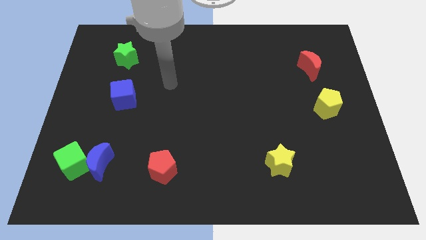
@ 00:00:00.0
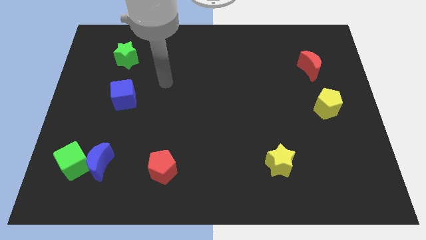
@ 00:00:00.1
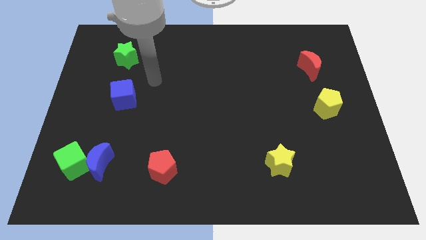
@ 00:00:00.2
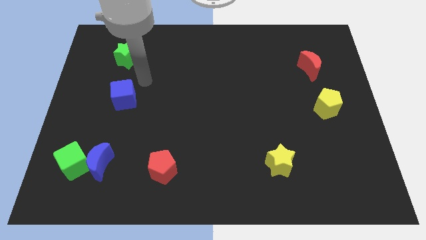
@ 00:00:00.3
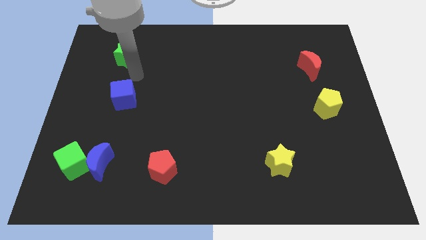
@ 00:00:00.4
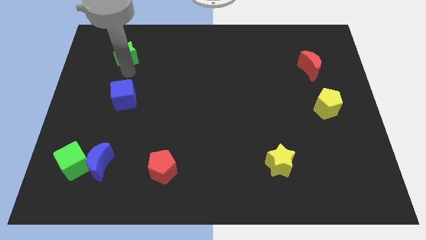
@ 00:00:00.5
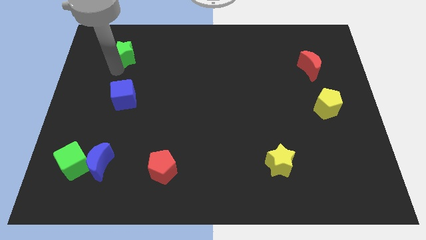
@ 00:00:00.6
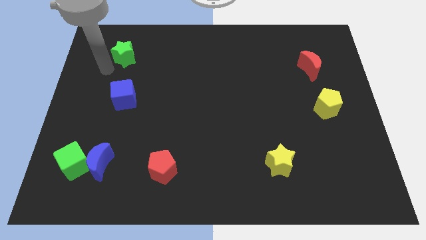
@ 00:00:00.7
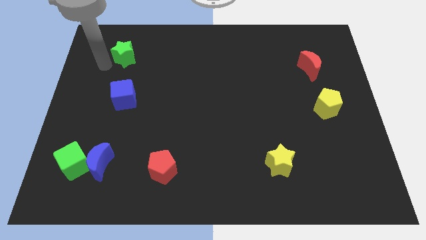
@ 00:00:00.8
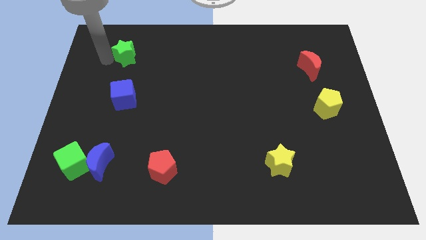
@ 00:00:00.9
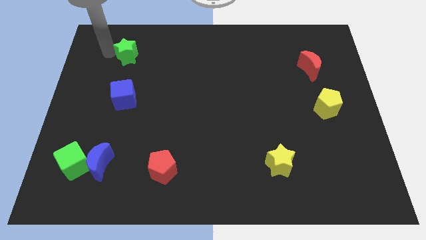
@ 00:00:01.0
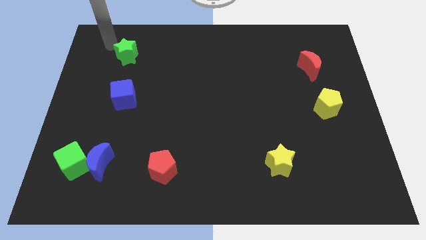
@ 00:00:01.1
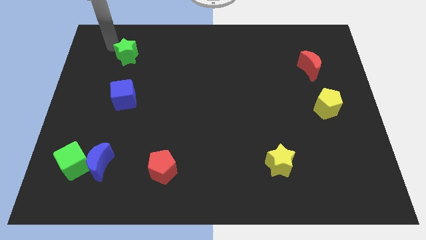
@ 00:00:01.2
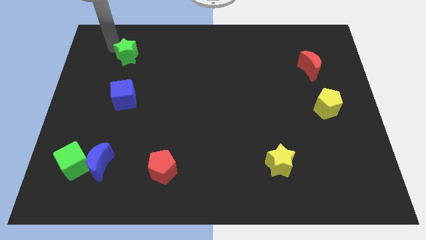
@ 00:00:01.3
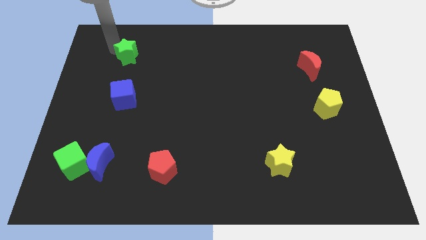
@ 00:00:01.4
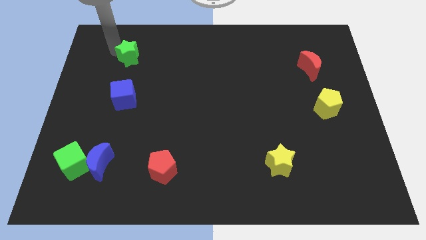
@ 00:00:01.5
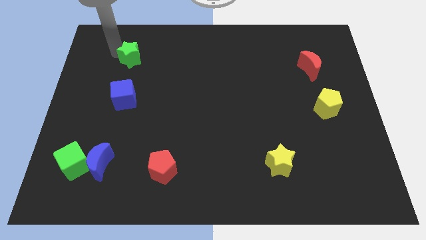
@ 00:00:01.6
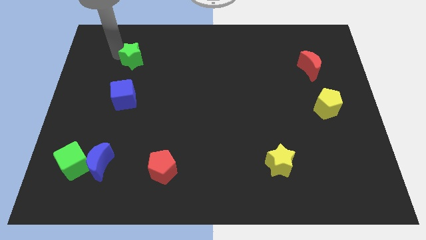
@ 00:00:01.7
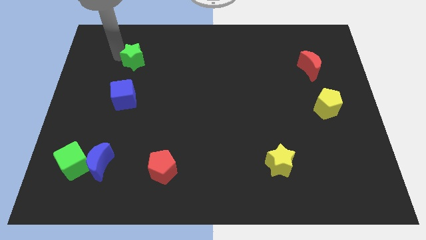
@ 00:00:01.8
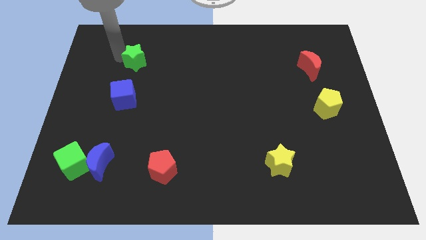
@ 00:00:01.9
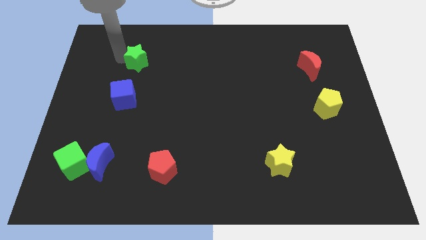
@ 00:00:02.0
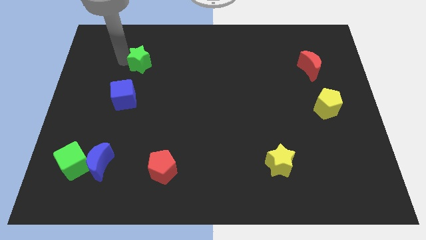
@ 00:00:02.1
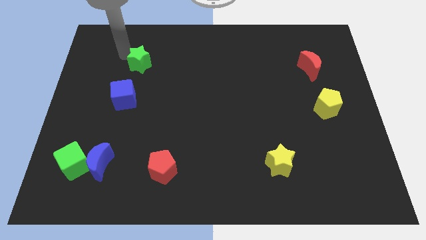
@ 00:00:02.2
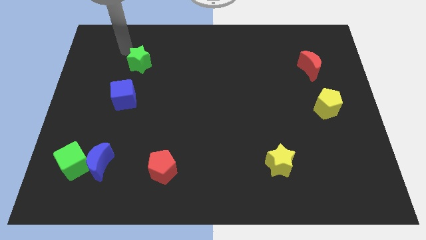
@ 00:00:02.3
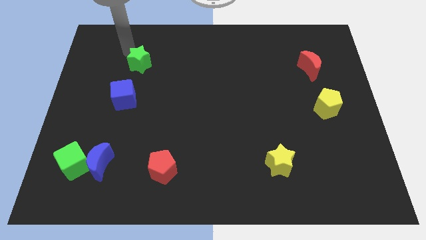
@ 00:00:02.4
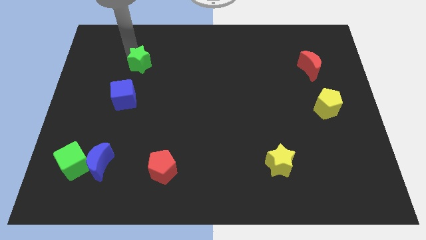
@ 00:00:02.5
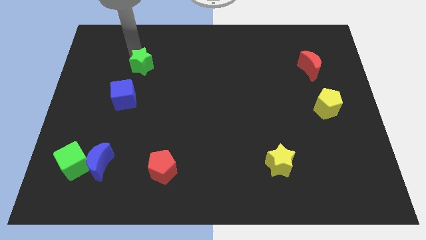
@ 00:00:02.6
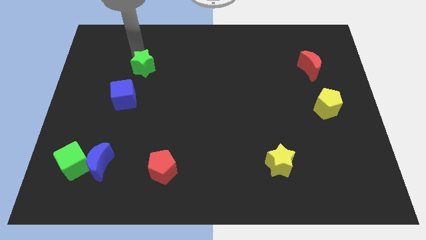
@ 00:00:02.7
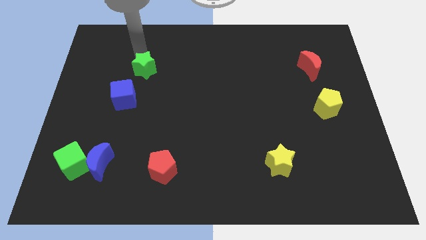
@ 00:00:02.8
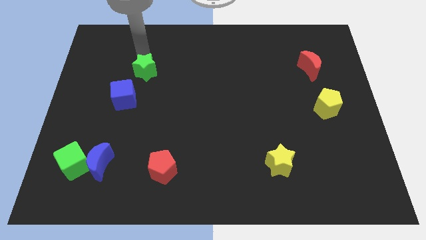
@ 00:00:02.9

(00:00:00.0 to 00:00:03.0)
push the green star somewhat down and to the right

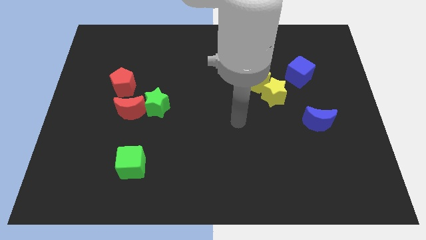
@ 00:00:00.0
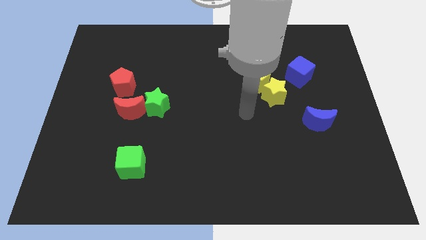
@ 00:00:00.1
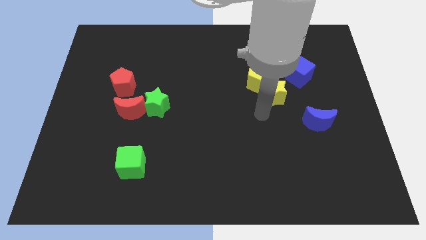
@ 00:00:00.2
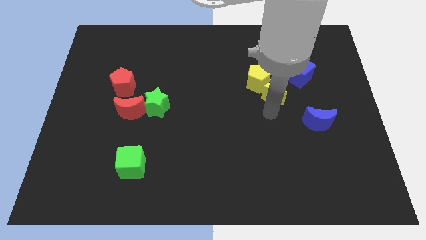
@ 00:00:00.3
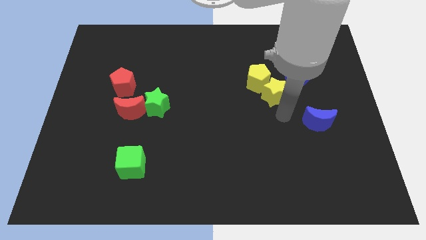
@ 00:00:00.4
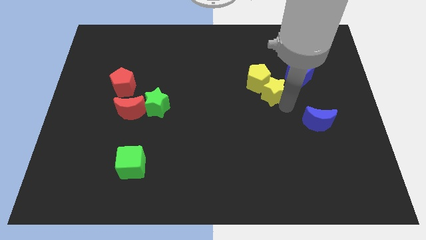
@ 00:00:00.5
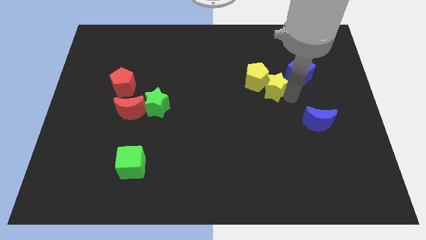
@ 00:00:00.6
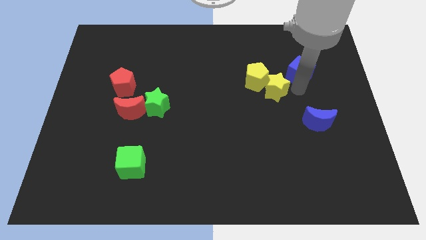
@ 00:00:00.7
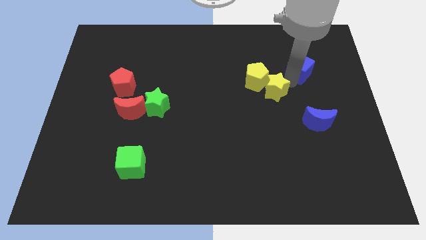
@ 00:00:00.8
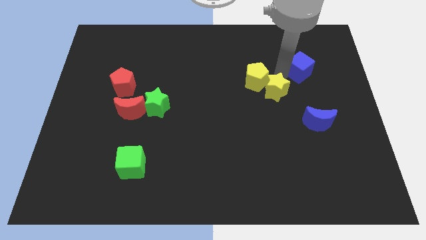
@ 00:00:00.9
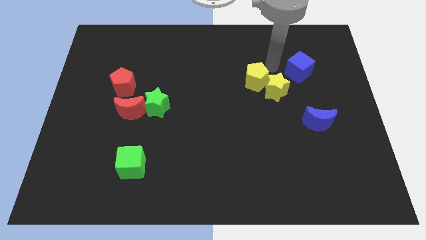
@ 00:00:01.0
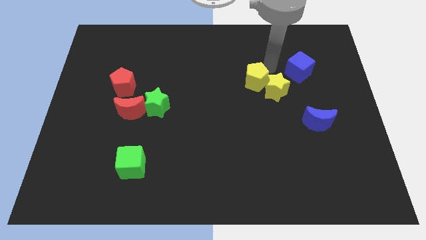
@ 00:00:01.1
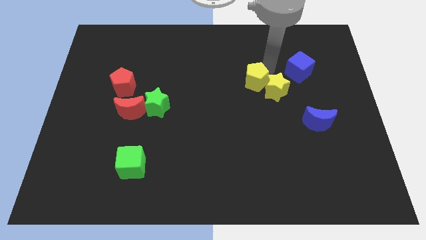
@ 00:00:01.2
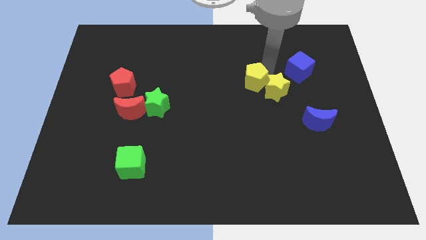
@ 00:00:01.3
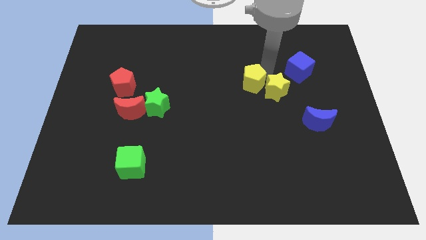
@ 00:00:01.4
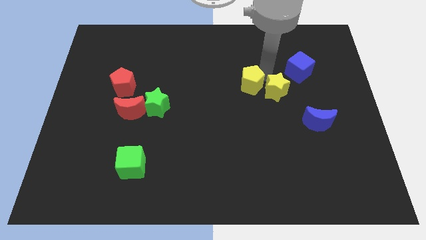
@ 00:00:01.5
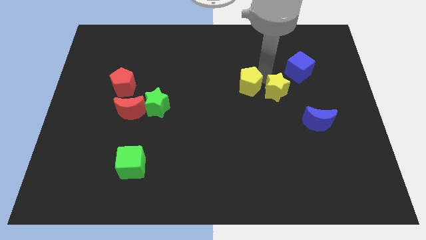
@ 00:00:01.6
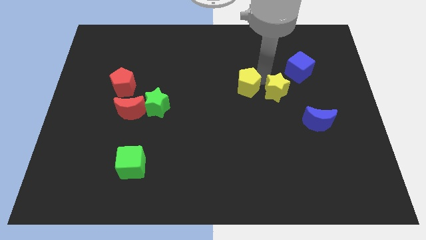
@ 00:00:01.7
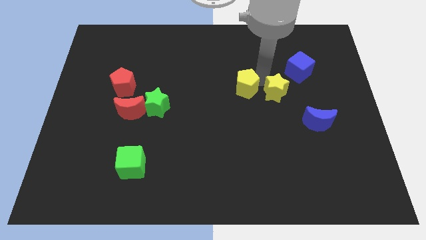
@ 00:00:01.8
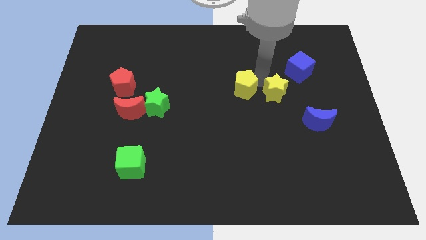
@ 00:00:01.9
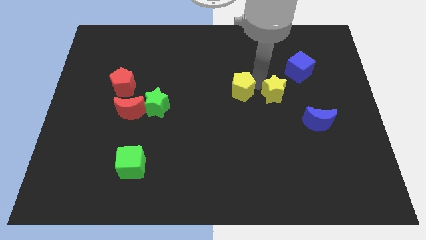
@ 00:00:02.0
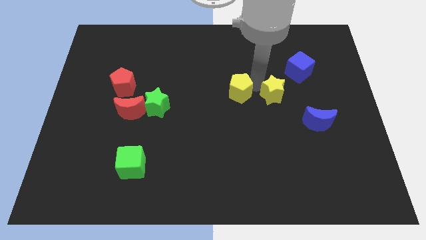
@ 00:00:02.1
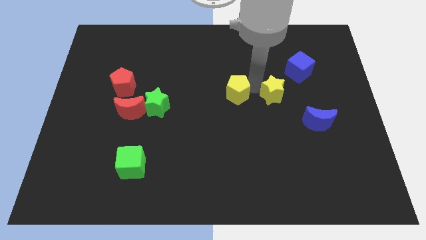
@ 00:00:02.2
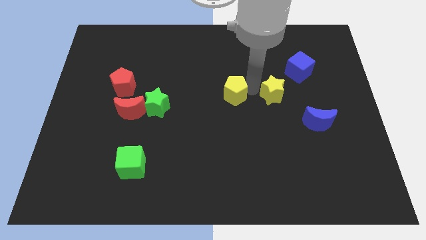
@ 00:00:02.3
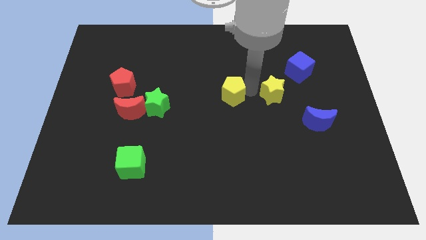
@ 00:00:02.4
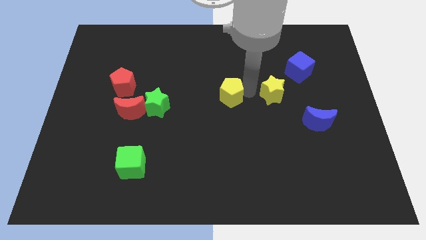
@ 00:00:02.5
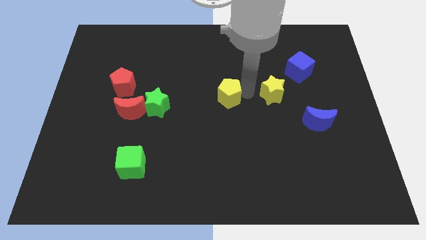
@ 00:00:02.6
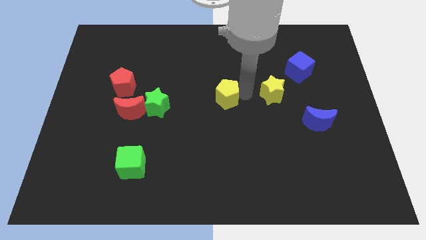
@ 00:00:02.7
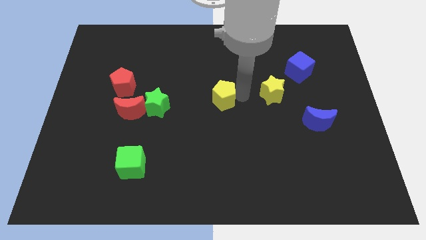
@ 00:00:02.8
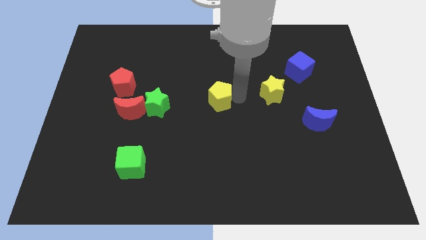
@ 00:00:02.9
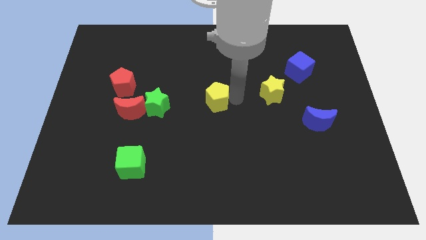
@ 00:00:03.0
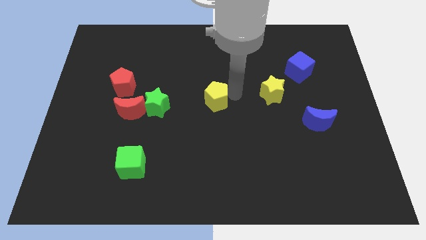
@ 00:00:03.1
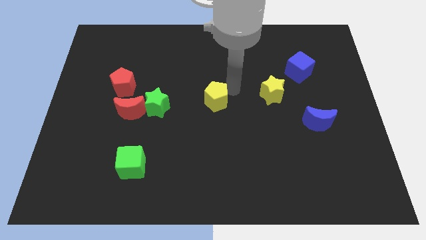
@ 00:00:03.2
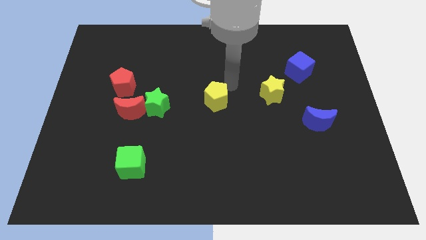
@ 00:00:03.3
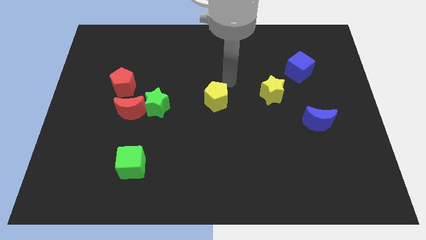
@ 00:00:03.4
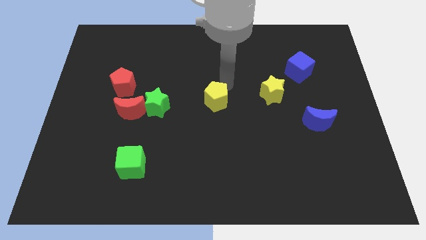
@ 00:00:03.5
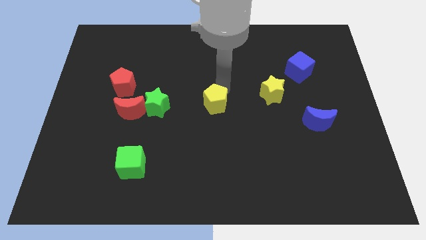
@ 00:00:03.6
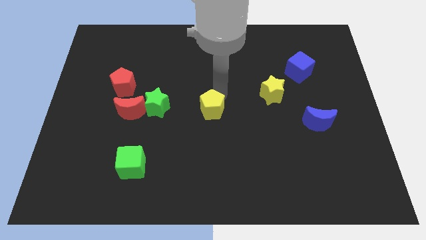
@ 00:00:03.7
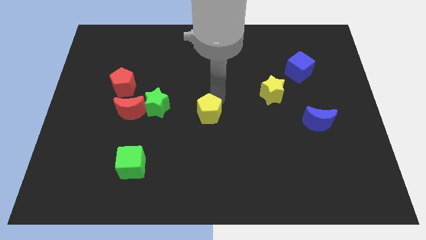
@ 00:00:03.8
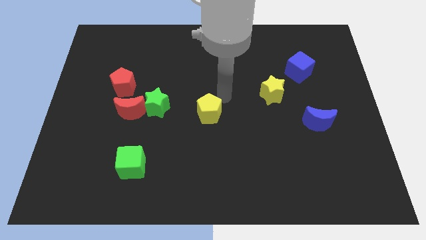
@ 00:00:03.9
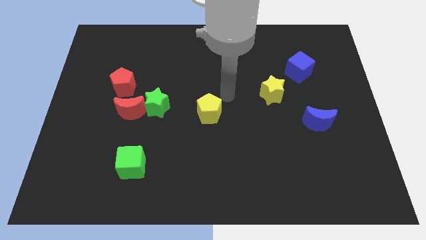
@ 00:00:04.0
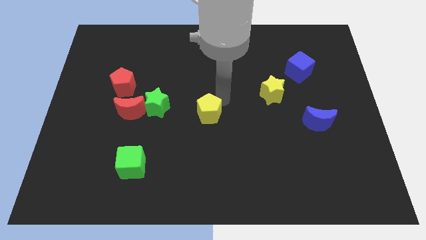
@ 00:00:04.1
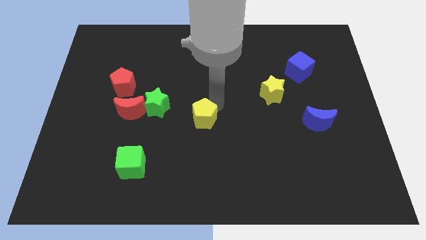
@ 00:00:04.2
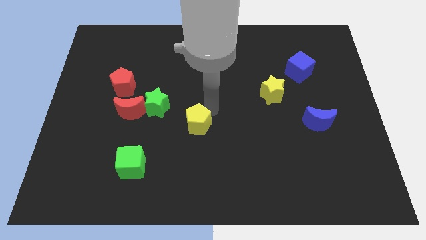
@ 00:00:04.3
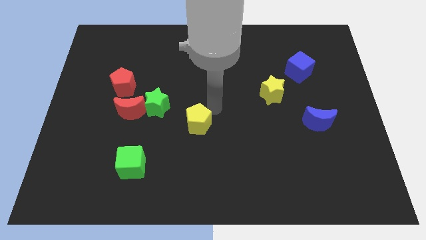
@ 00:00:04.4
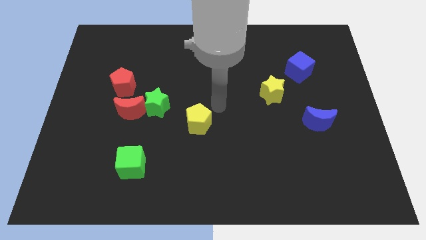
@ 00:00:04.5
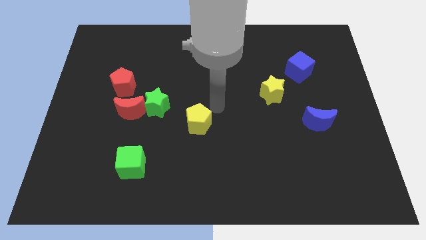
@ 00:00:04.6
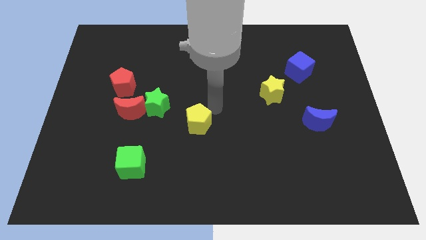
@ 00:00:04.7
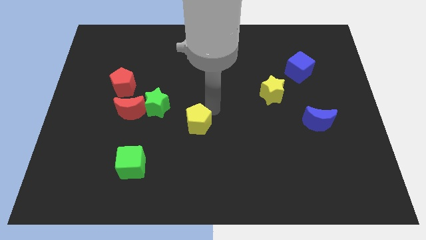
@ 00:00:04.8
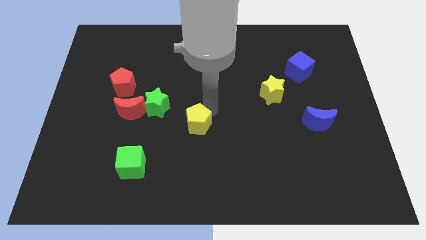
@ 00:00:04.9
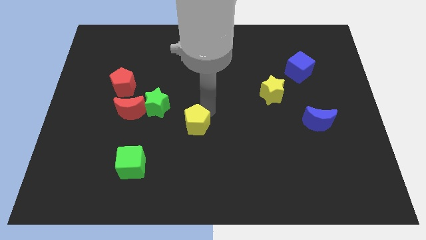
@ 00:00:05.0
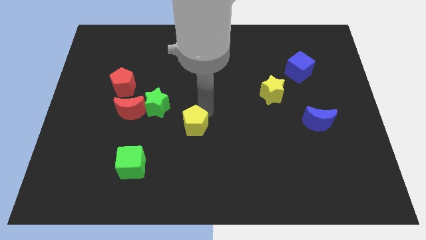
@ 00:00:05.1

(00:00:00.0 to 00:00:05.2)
move the yellow pentagon downwards and to the left diagonally
